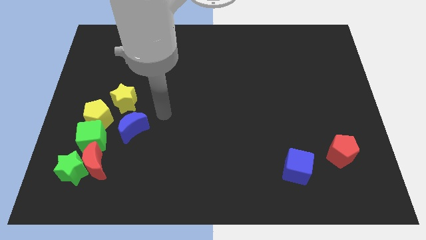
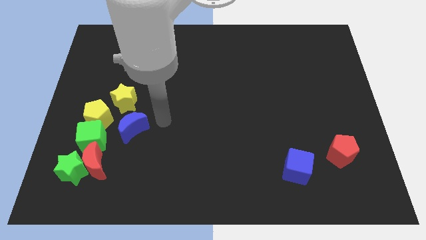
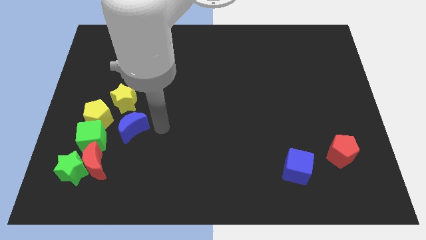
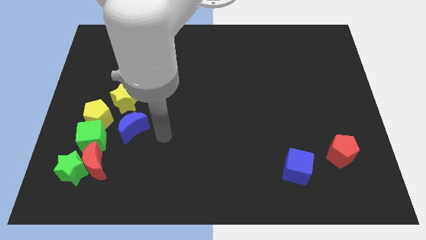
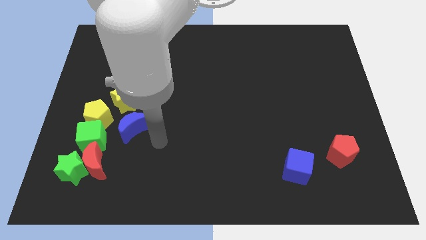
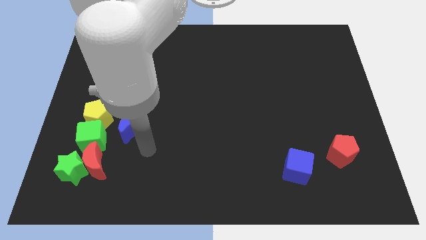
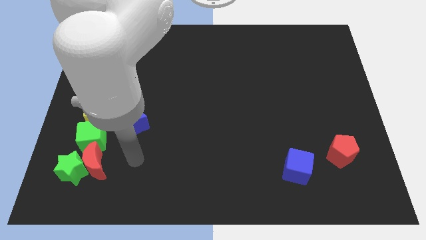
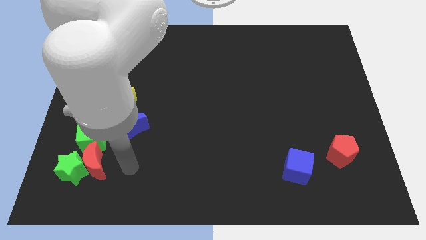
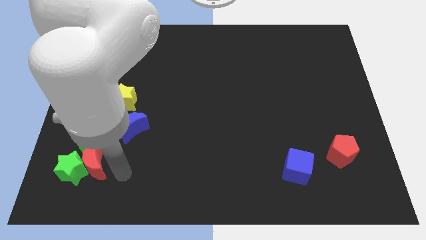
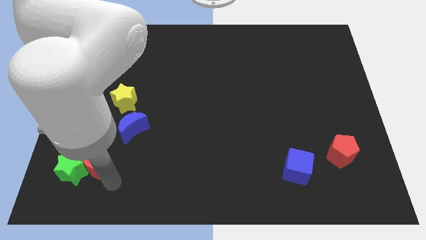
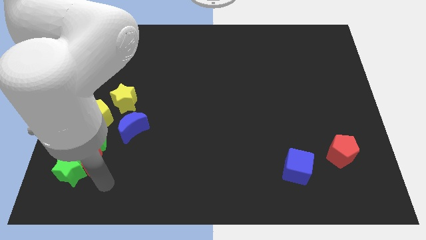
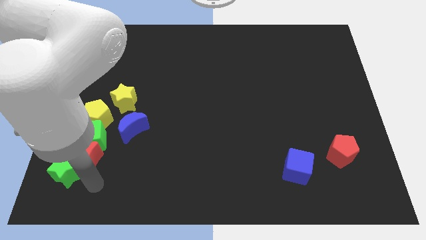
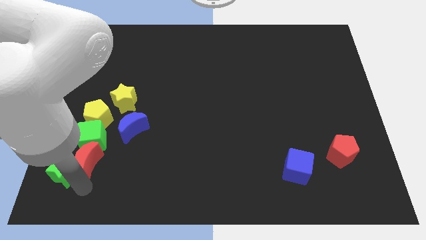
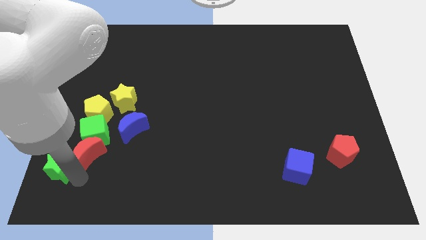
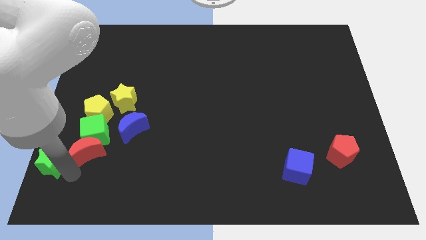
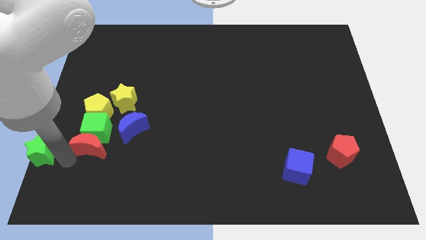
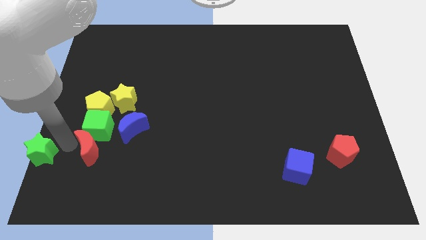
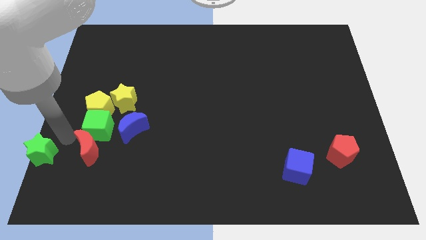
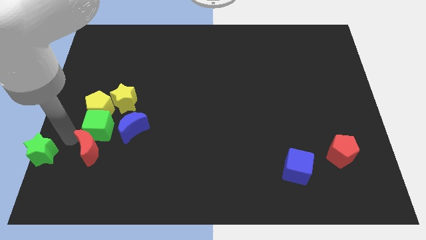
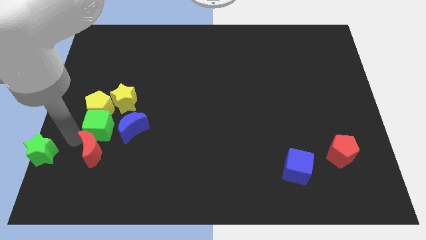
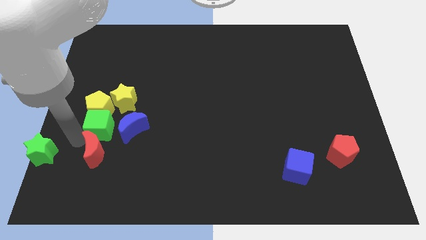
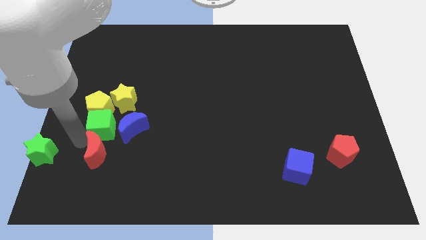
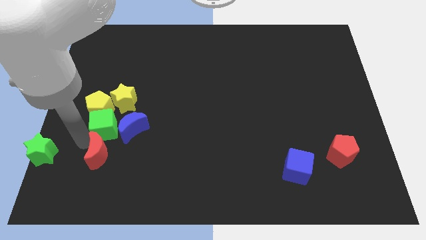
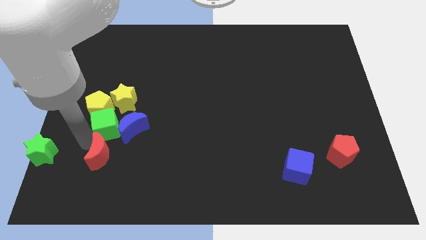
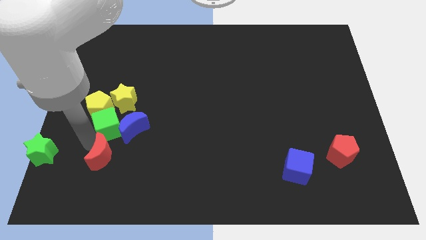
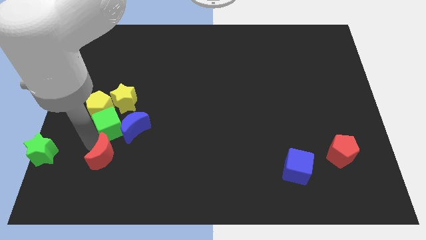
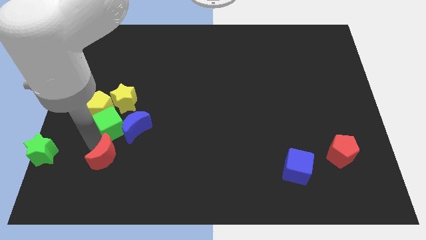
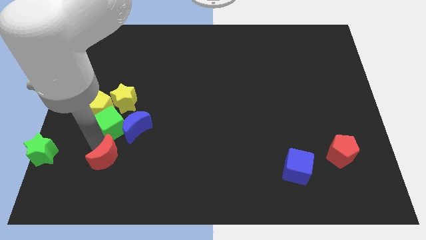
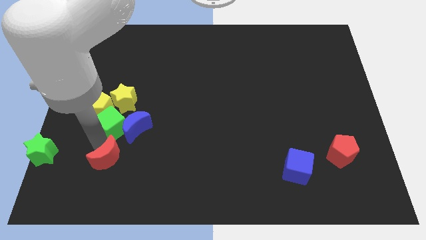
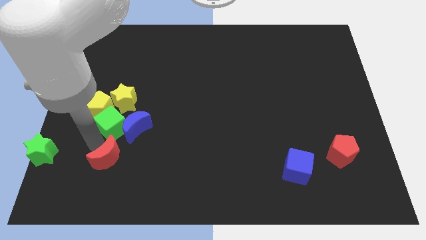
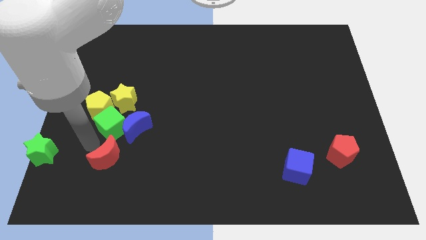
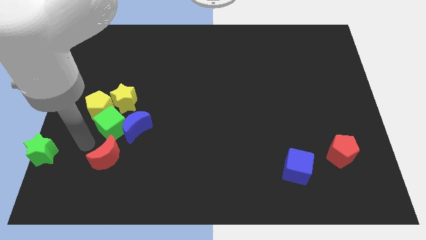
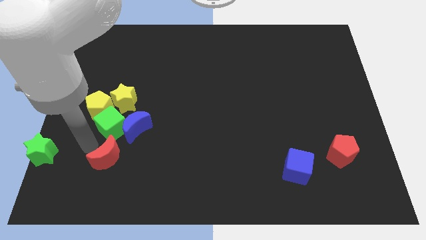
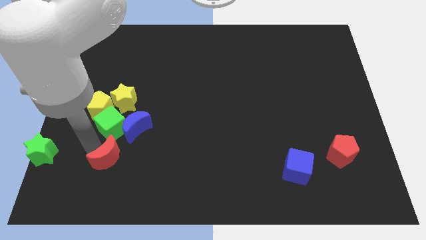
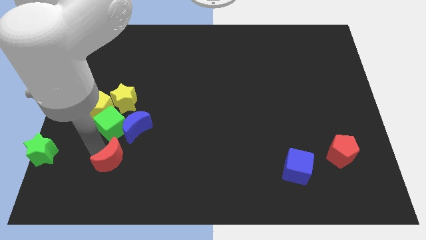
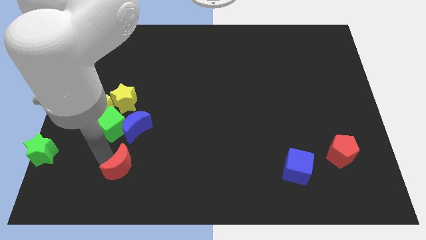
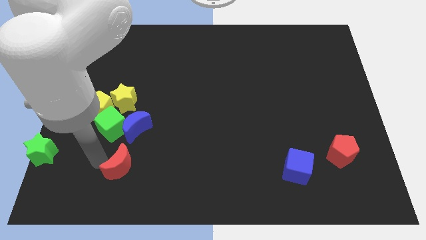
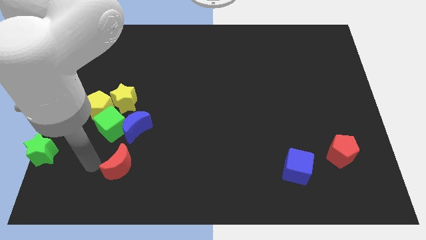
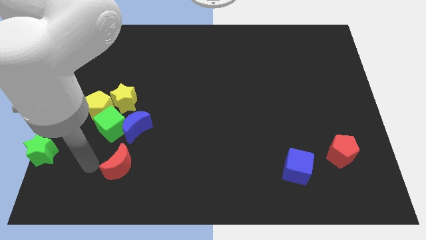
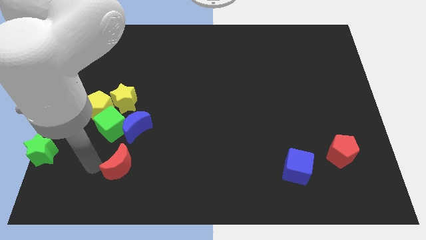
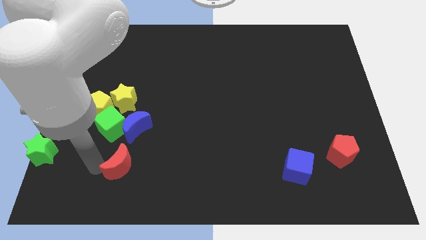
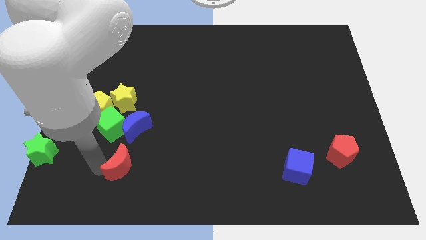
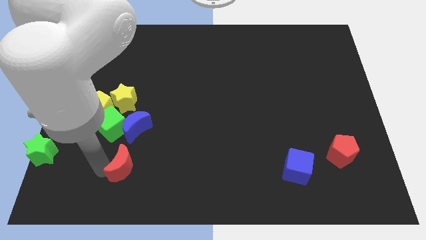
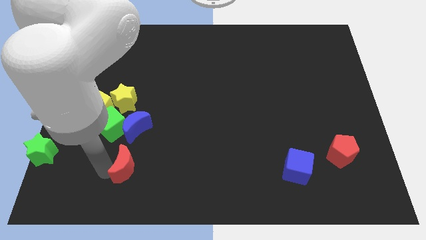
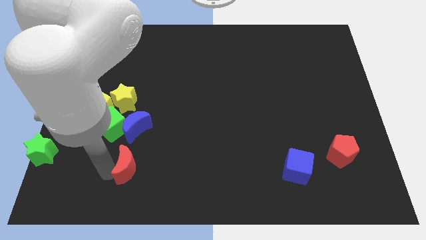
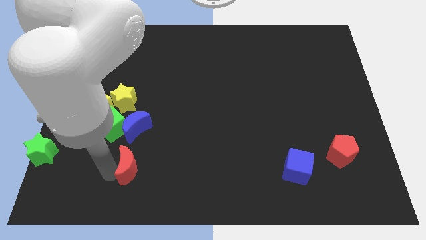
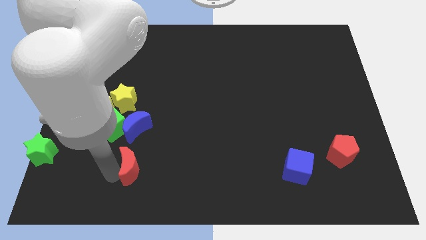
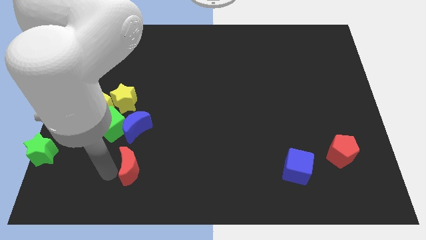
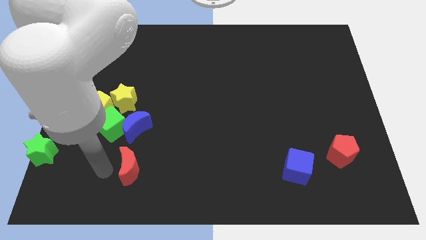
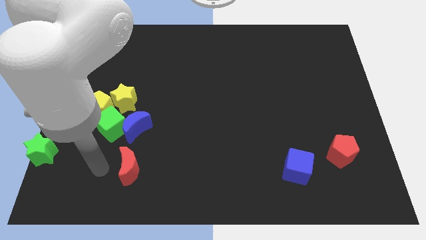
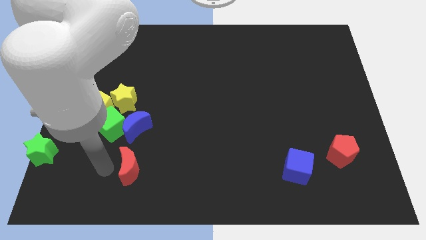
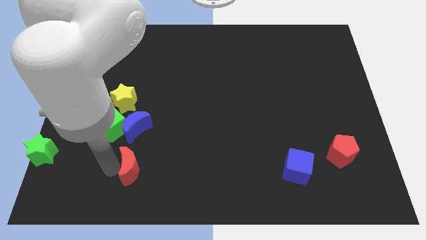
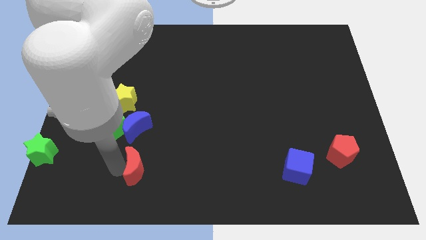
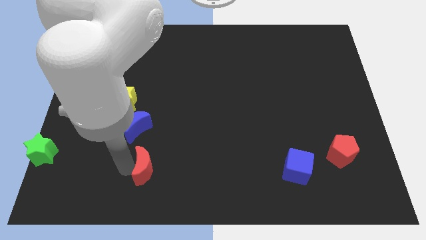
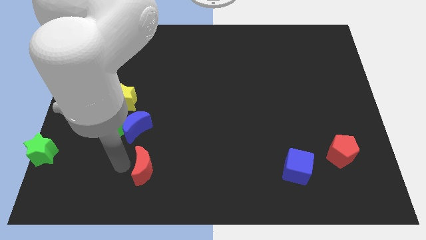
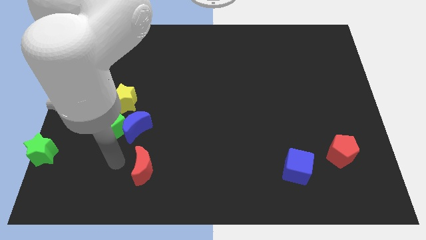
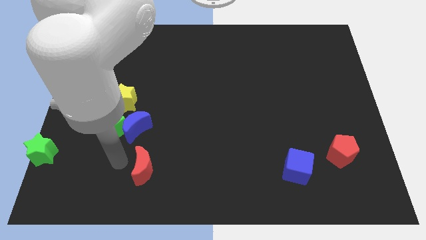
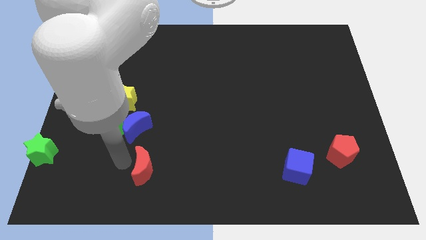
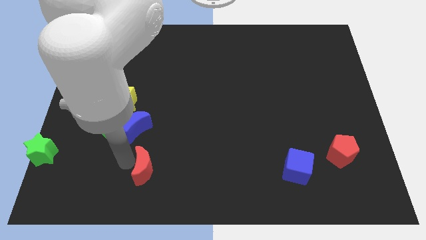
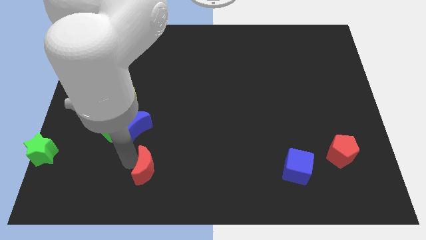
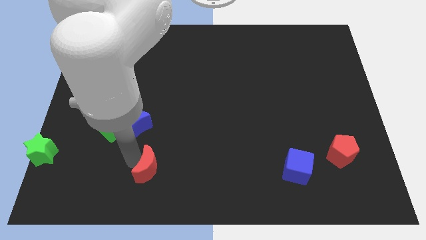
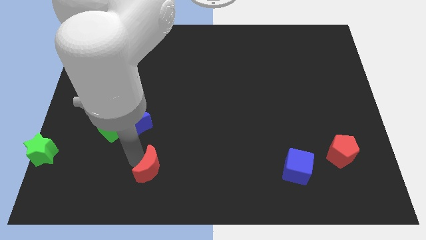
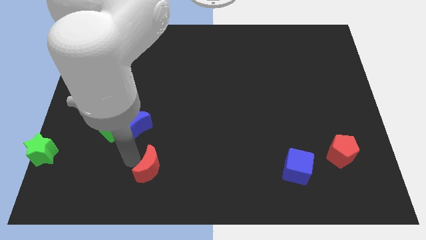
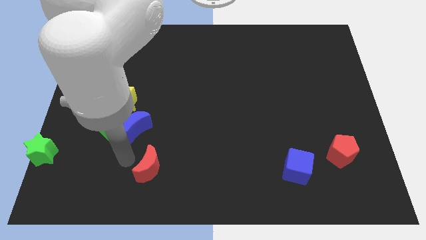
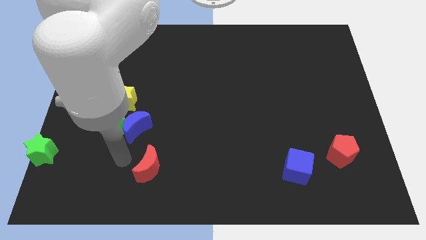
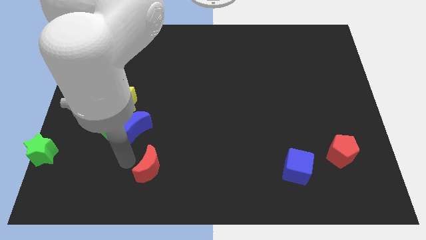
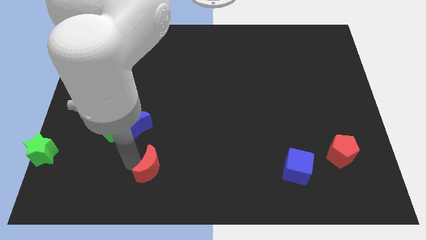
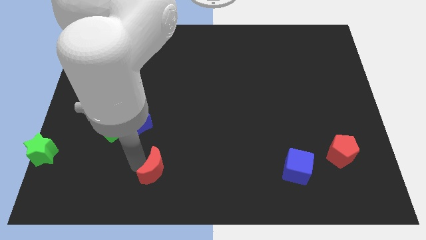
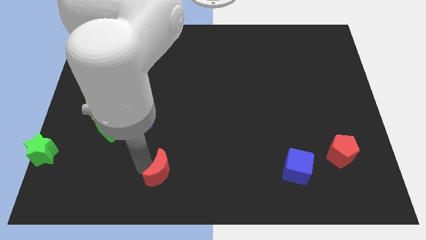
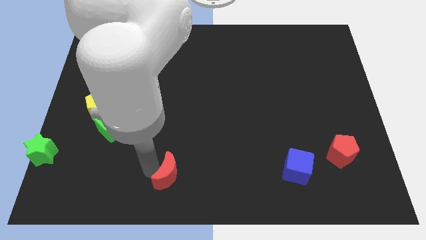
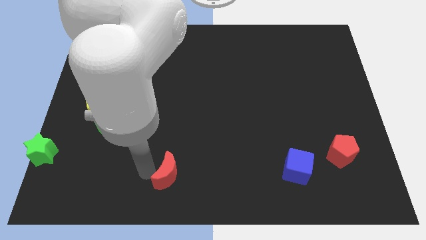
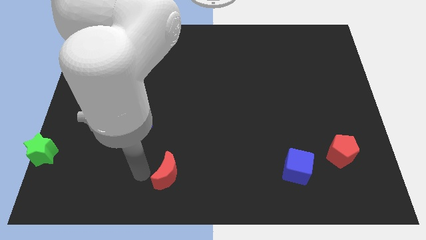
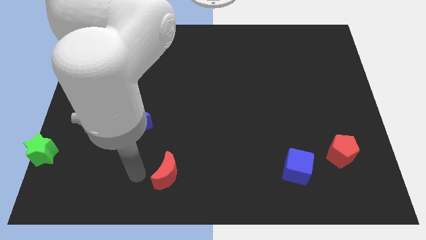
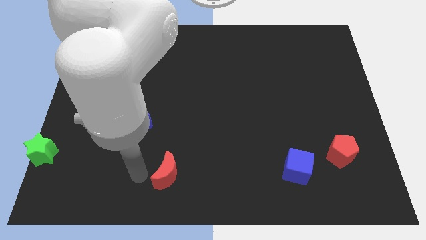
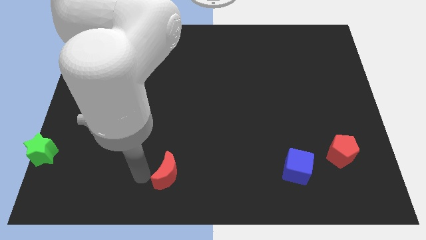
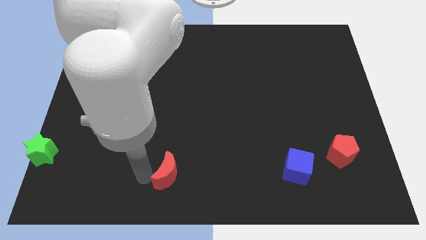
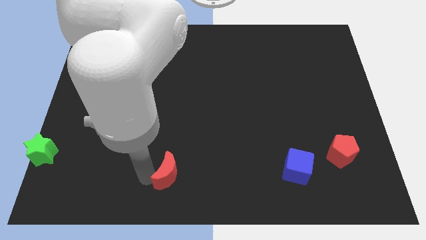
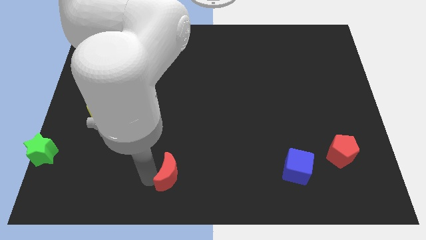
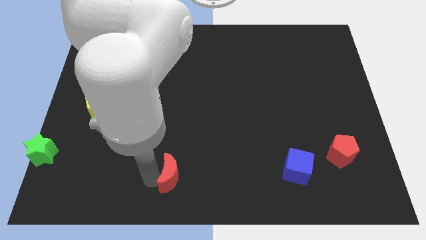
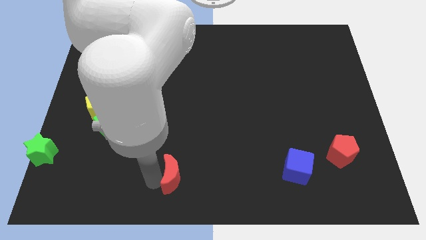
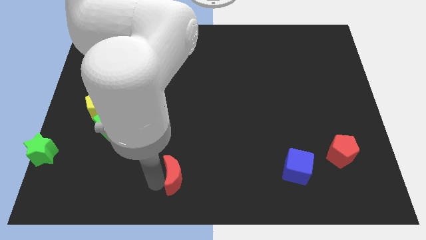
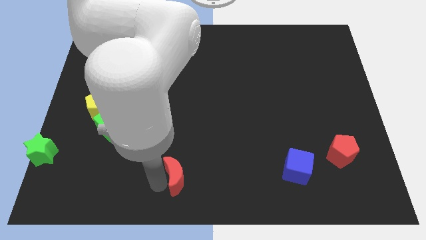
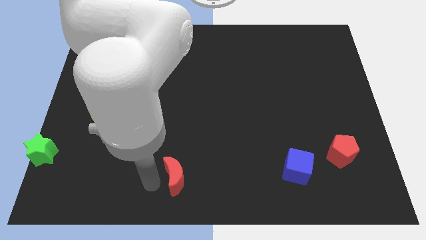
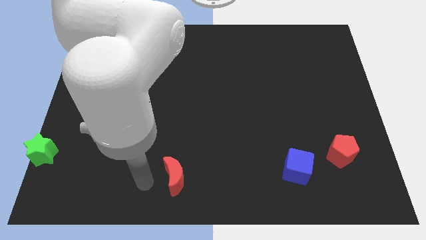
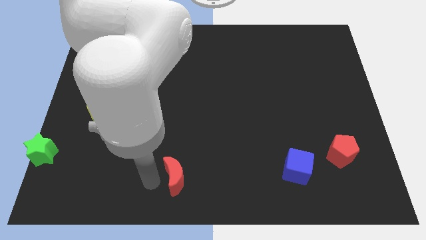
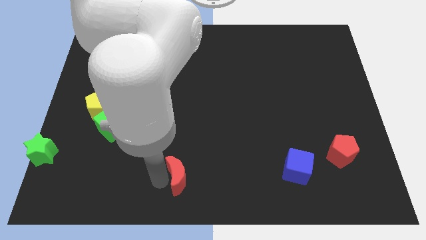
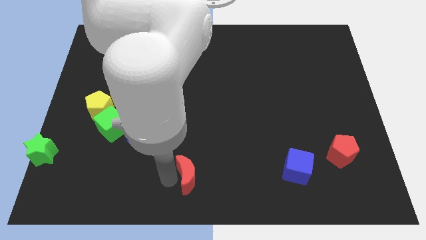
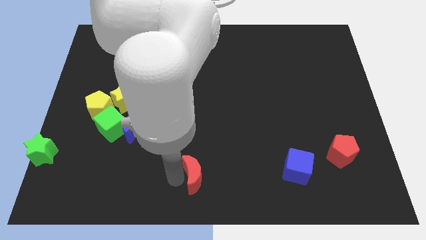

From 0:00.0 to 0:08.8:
slide the red moon to the right
